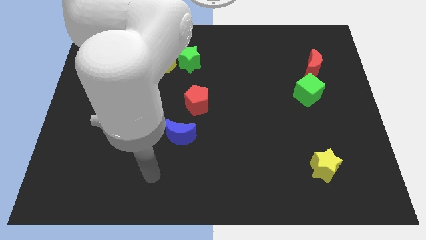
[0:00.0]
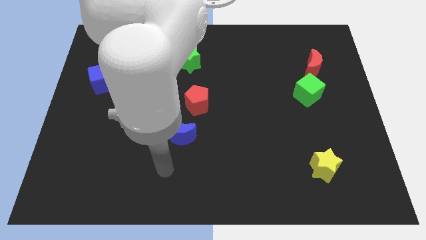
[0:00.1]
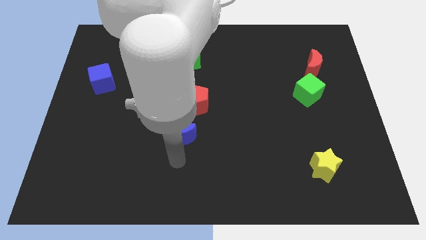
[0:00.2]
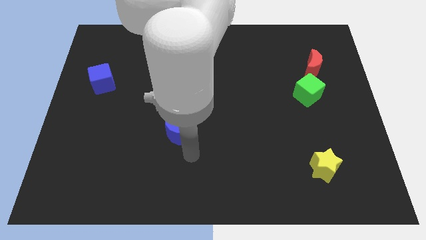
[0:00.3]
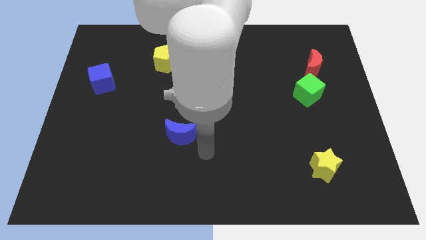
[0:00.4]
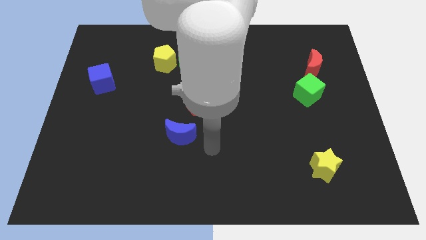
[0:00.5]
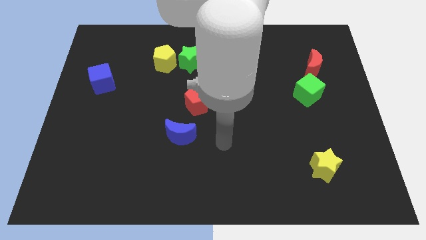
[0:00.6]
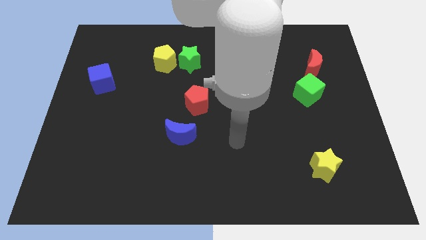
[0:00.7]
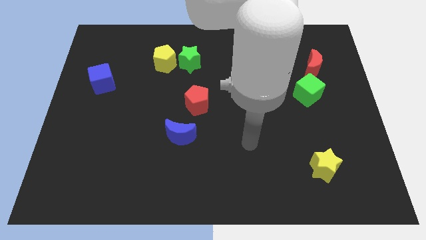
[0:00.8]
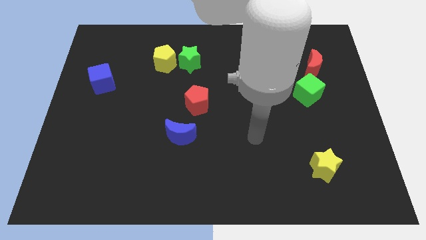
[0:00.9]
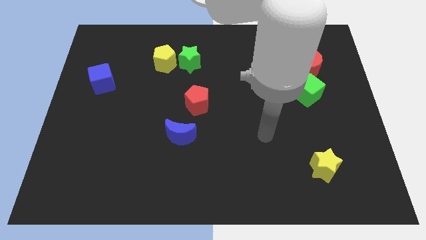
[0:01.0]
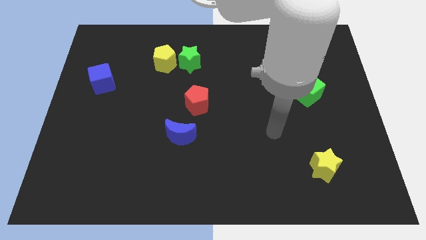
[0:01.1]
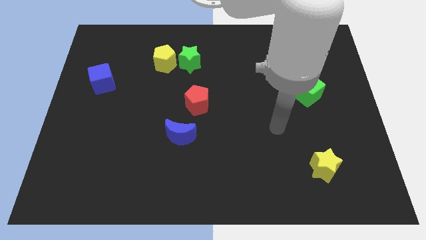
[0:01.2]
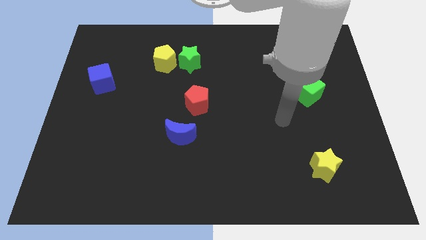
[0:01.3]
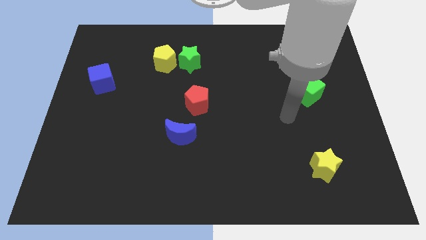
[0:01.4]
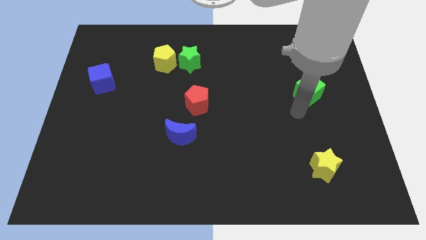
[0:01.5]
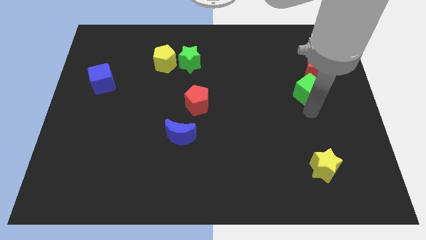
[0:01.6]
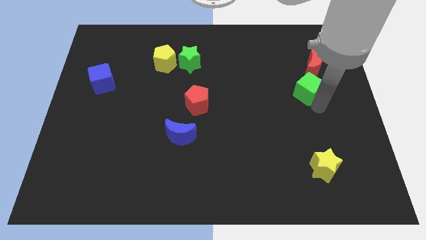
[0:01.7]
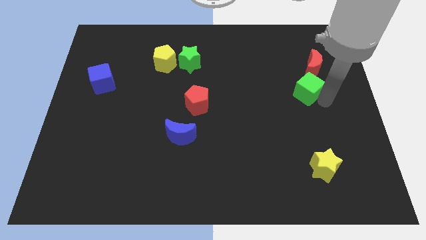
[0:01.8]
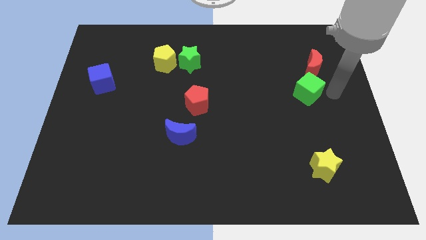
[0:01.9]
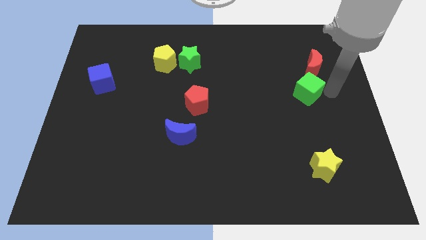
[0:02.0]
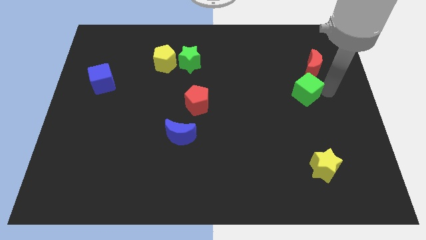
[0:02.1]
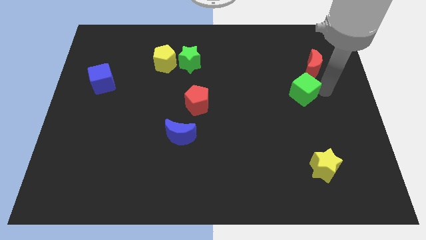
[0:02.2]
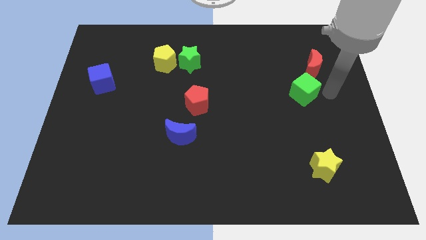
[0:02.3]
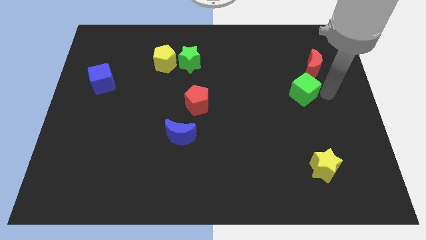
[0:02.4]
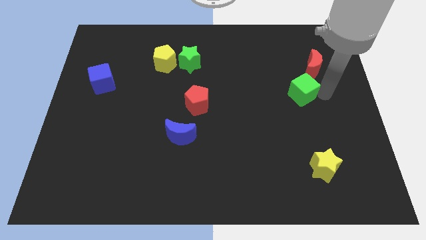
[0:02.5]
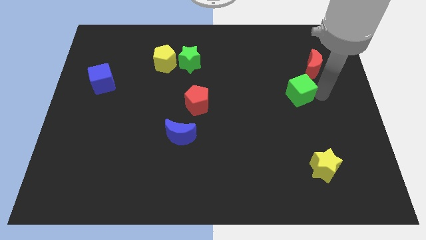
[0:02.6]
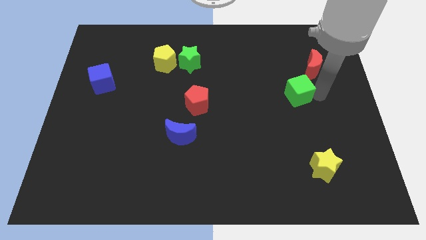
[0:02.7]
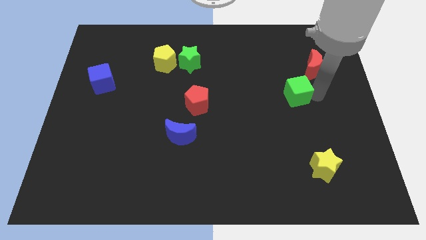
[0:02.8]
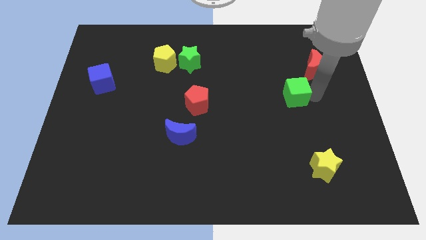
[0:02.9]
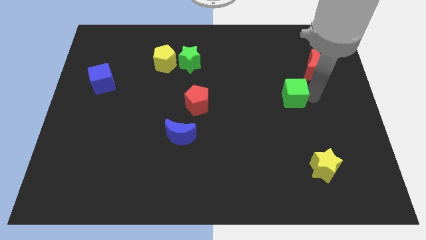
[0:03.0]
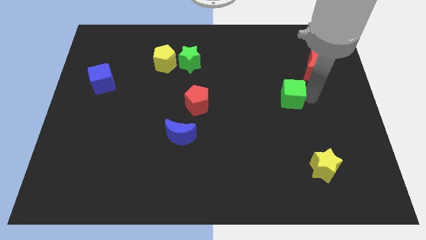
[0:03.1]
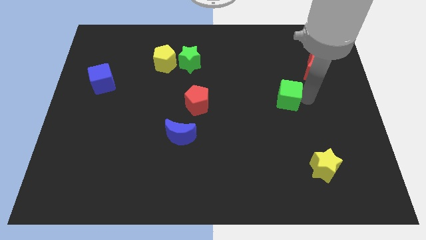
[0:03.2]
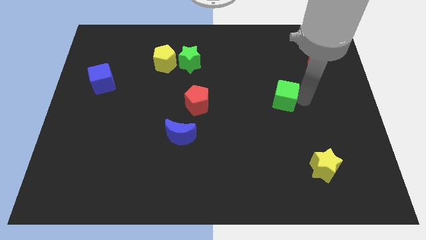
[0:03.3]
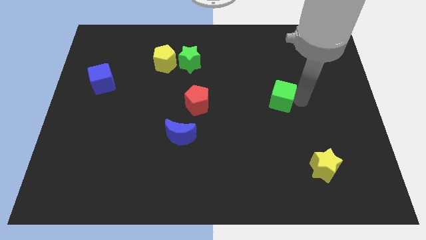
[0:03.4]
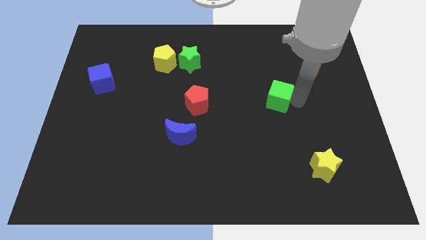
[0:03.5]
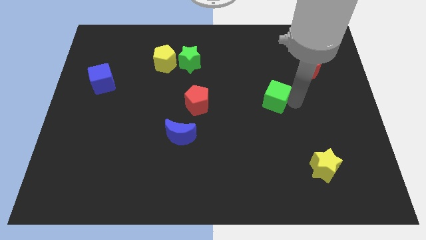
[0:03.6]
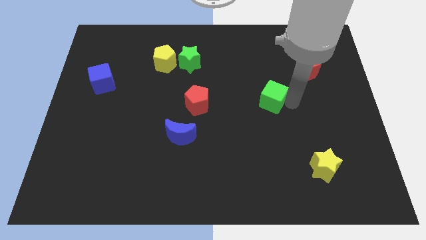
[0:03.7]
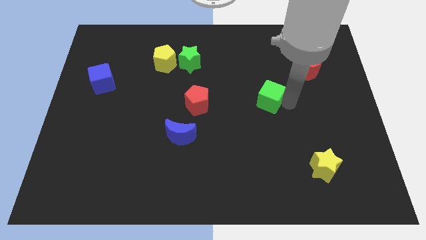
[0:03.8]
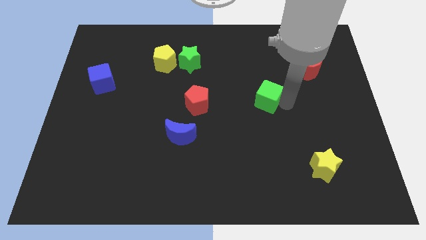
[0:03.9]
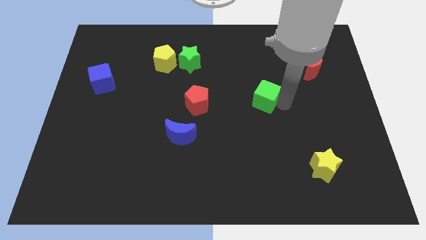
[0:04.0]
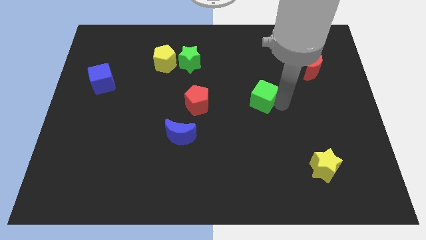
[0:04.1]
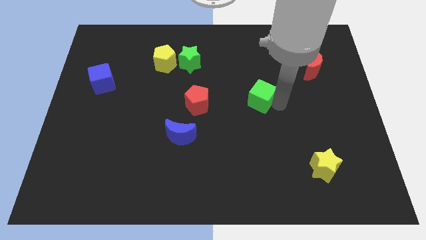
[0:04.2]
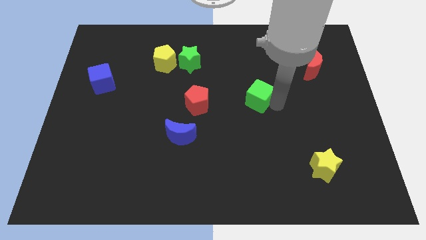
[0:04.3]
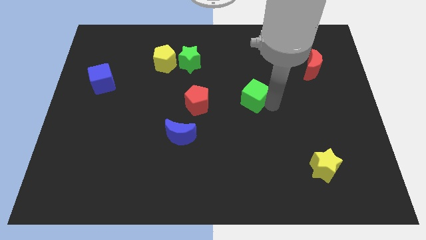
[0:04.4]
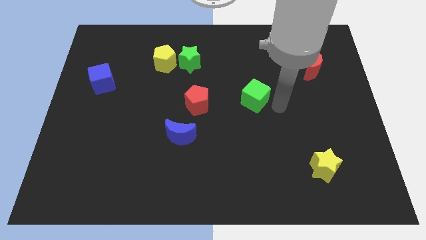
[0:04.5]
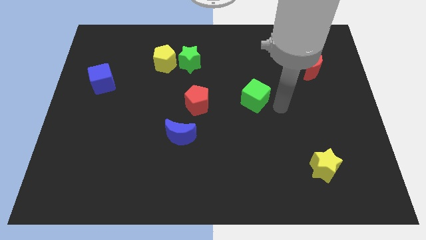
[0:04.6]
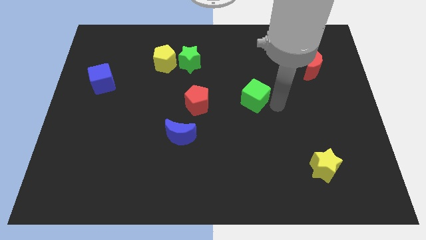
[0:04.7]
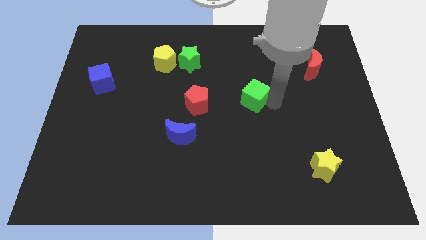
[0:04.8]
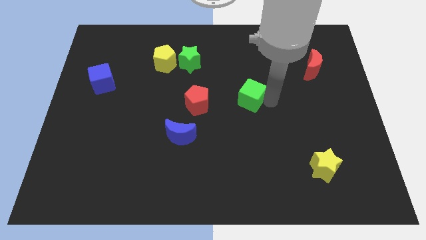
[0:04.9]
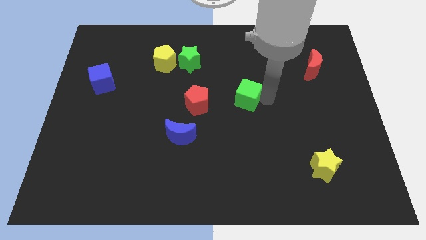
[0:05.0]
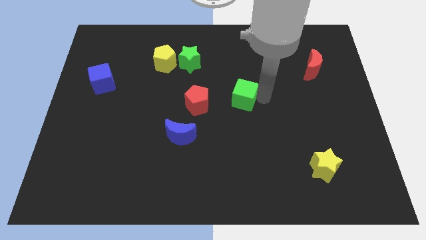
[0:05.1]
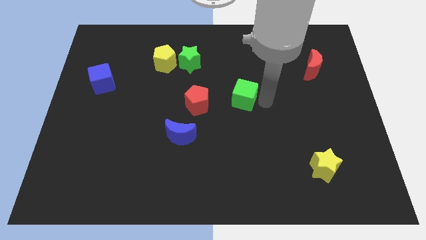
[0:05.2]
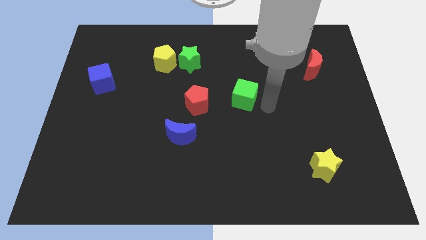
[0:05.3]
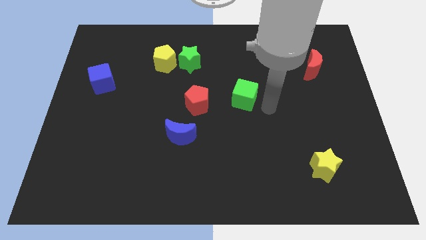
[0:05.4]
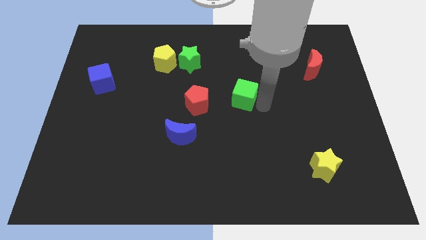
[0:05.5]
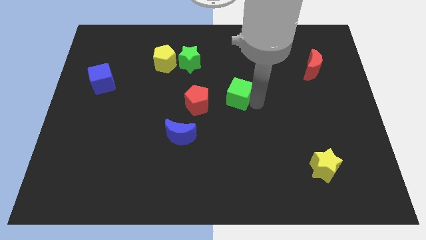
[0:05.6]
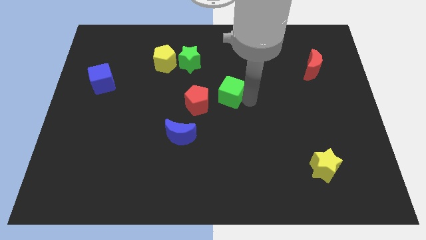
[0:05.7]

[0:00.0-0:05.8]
slide the green cube diagonally up and to the right of the red pentagon

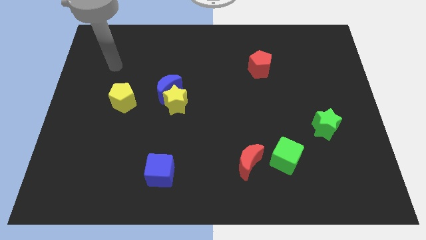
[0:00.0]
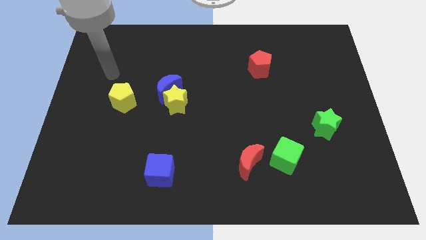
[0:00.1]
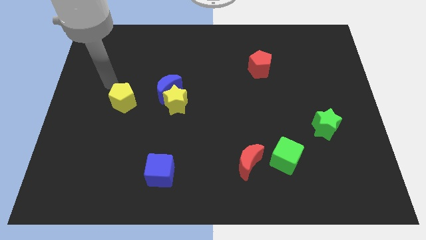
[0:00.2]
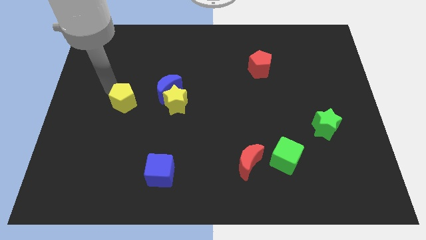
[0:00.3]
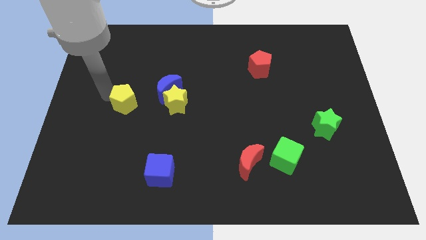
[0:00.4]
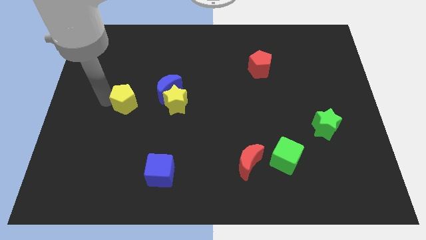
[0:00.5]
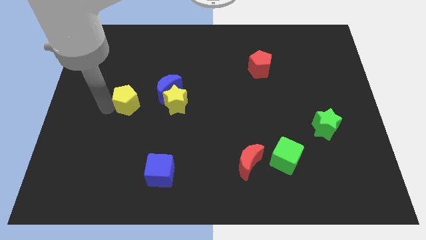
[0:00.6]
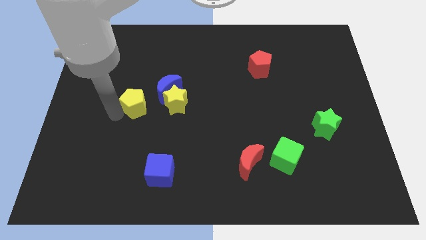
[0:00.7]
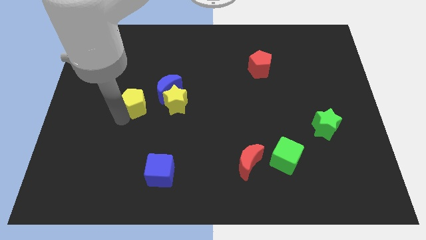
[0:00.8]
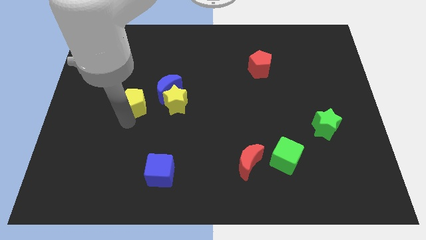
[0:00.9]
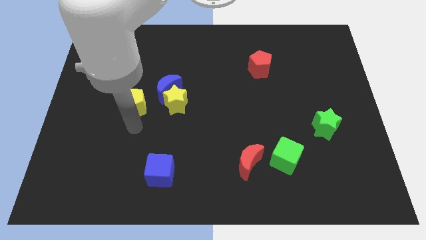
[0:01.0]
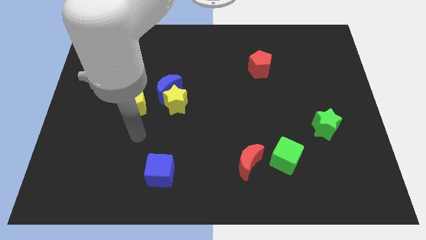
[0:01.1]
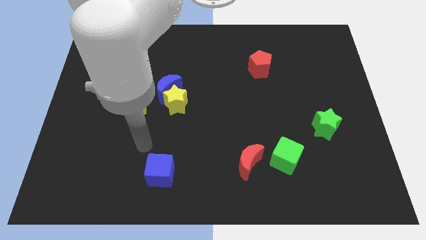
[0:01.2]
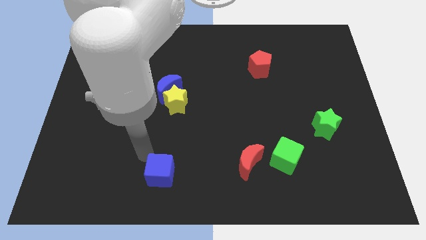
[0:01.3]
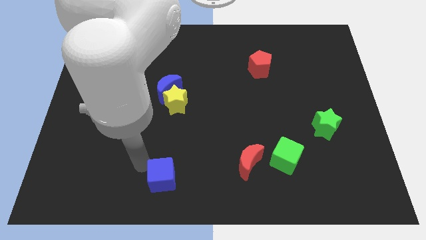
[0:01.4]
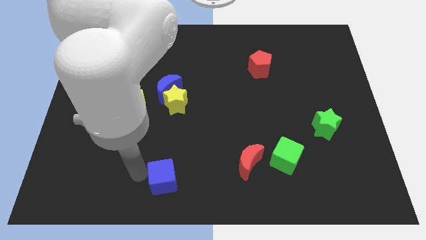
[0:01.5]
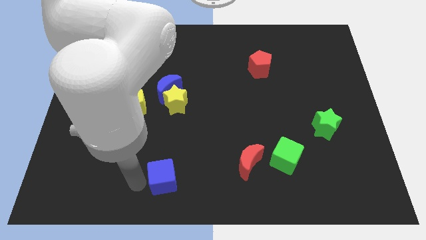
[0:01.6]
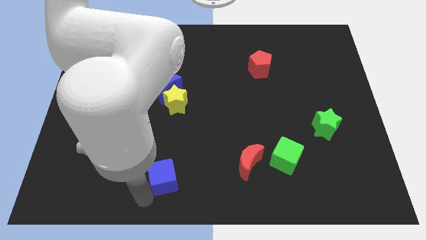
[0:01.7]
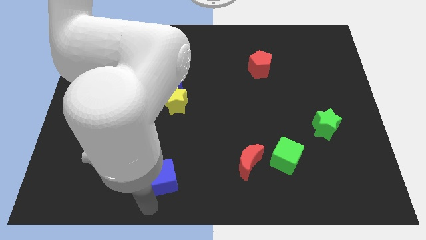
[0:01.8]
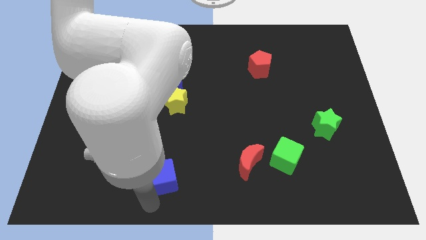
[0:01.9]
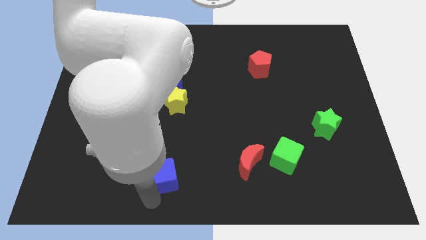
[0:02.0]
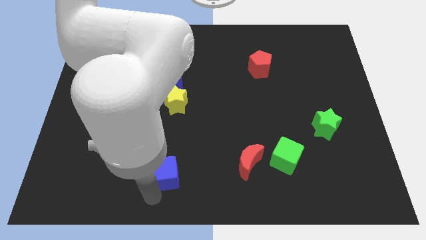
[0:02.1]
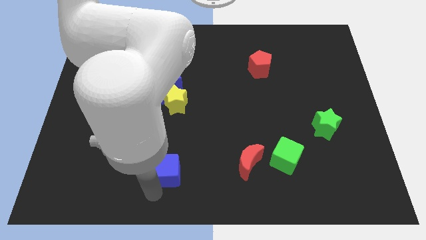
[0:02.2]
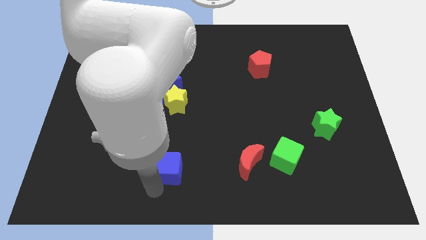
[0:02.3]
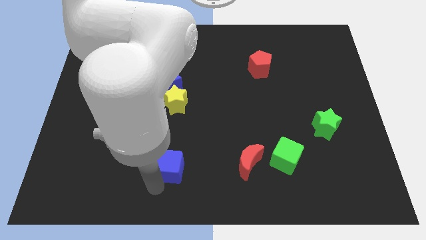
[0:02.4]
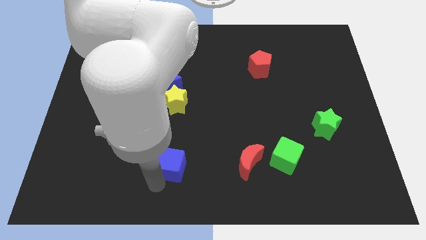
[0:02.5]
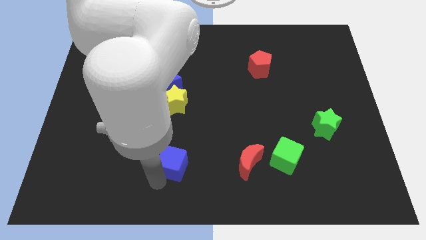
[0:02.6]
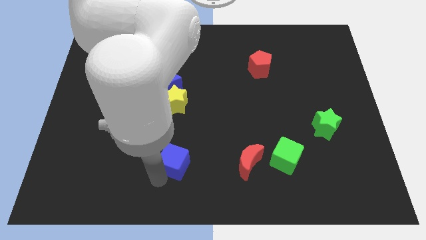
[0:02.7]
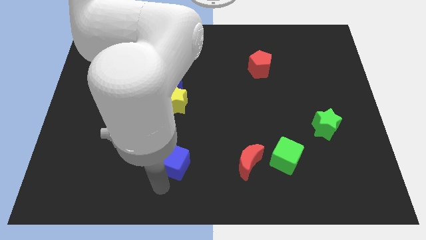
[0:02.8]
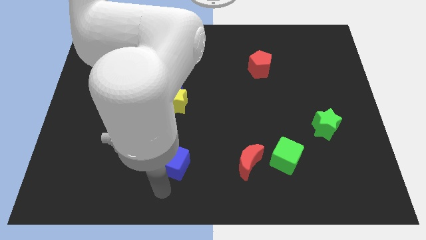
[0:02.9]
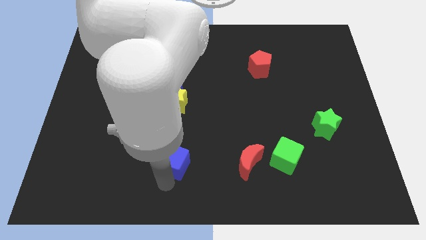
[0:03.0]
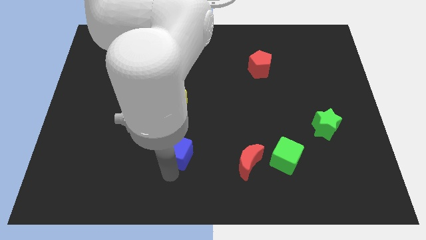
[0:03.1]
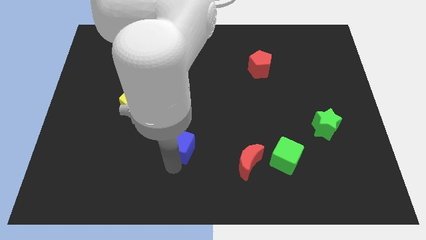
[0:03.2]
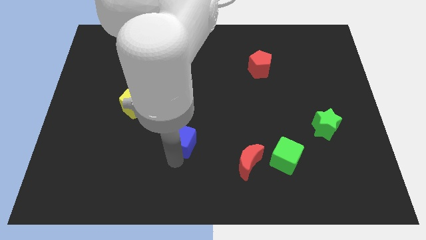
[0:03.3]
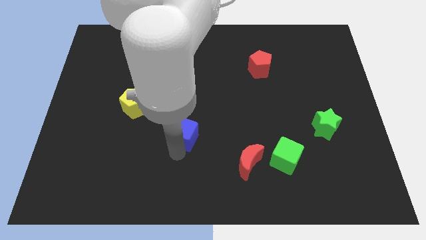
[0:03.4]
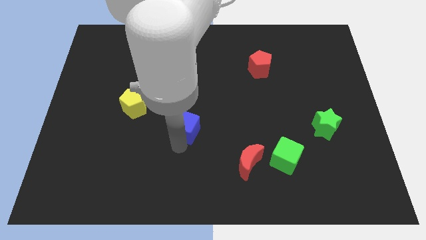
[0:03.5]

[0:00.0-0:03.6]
slide the blue cube to the bottom right of the yellow star
